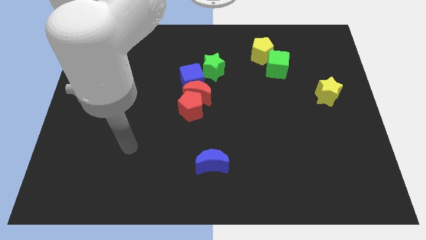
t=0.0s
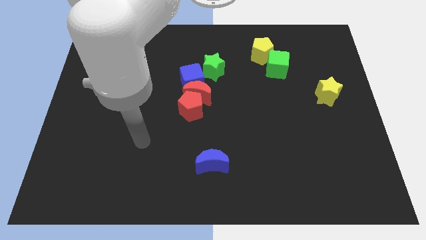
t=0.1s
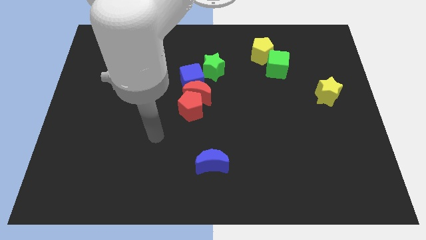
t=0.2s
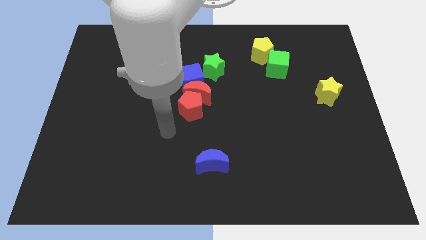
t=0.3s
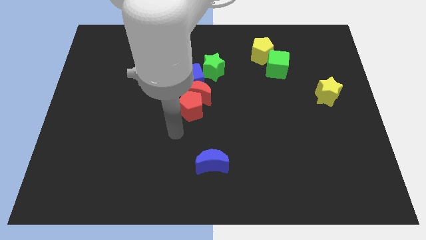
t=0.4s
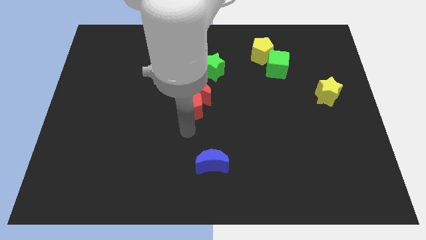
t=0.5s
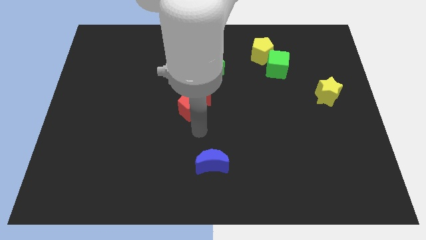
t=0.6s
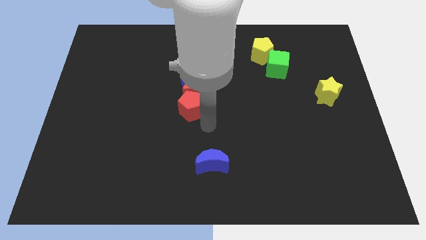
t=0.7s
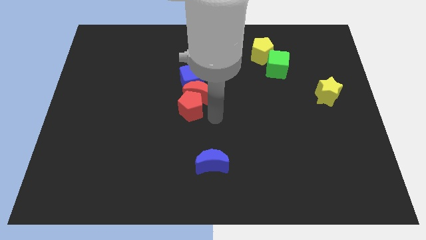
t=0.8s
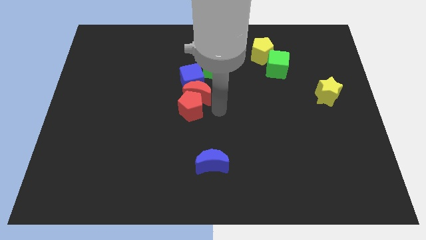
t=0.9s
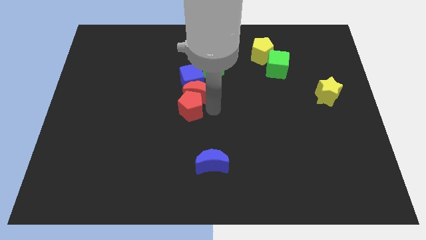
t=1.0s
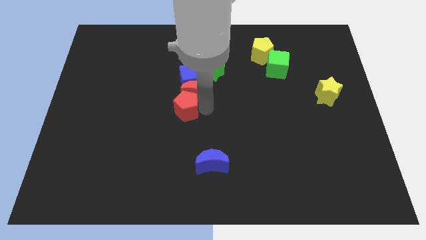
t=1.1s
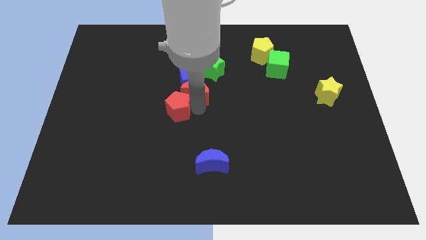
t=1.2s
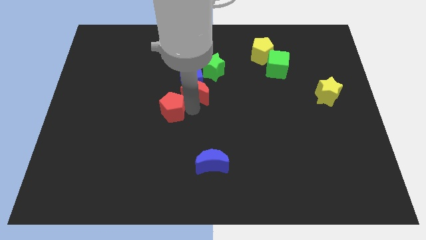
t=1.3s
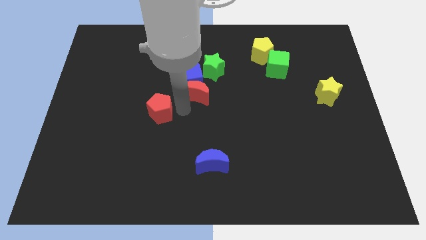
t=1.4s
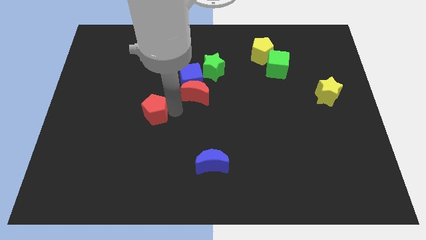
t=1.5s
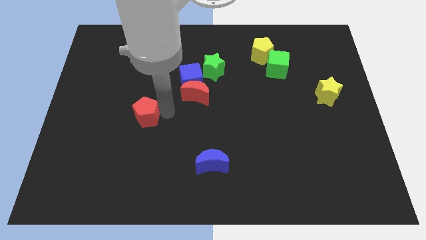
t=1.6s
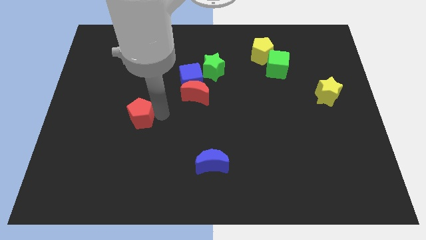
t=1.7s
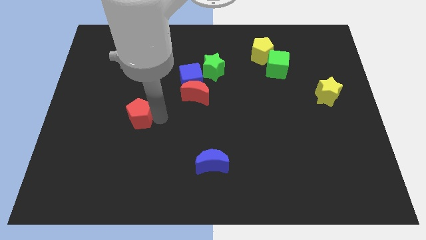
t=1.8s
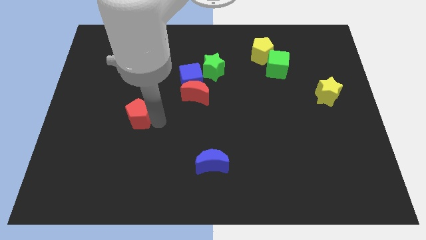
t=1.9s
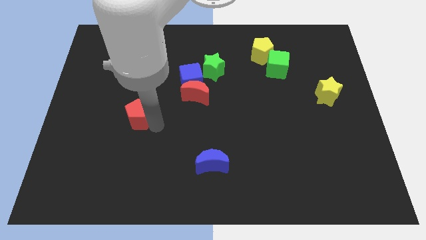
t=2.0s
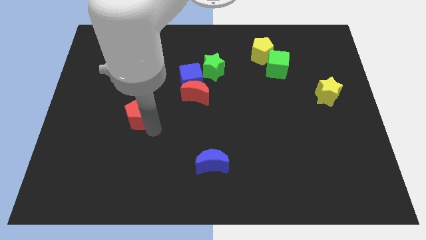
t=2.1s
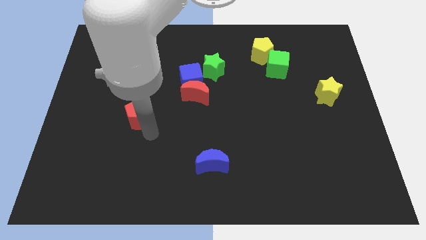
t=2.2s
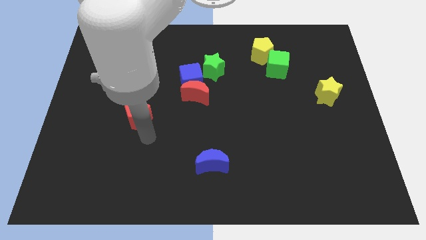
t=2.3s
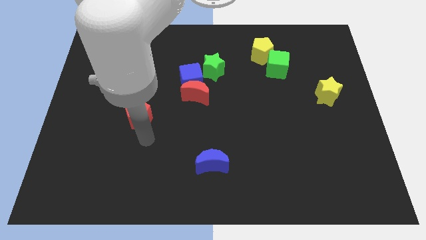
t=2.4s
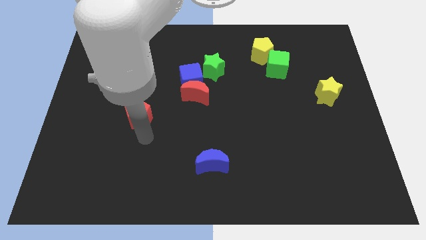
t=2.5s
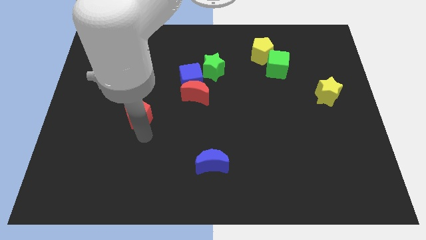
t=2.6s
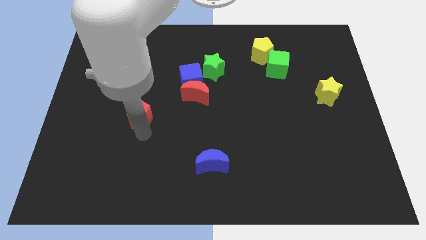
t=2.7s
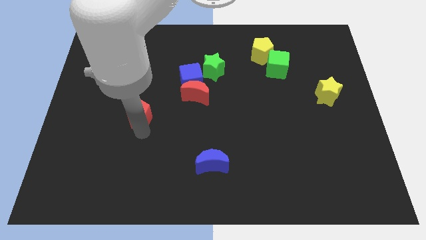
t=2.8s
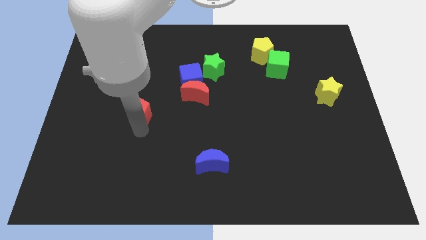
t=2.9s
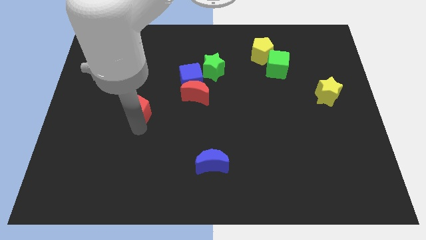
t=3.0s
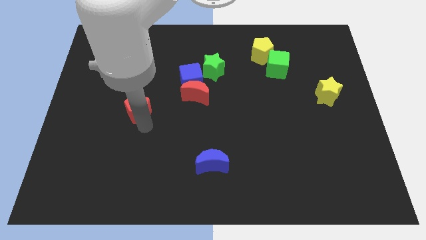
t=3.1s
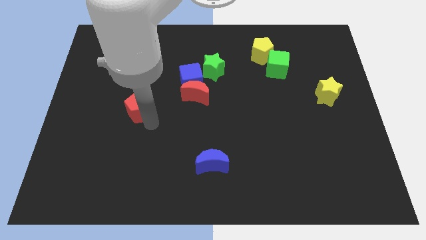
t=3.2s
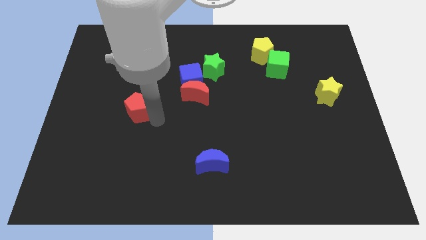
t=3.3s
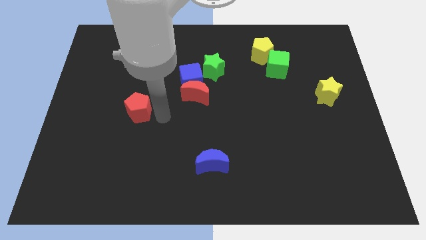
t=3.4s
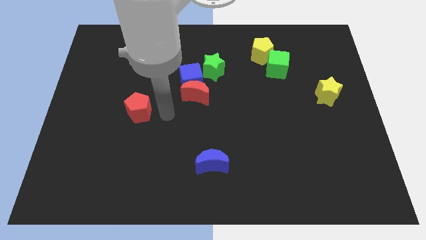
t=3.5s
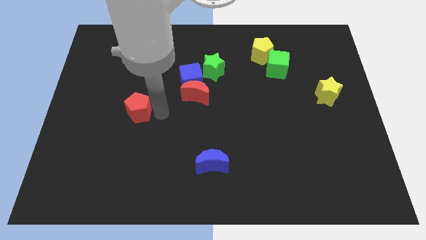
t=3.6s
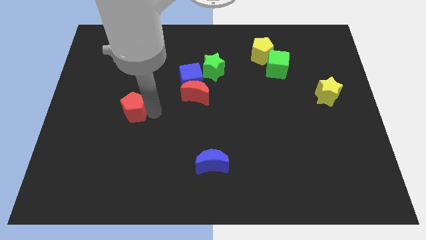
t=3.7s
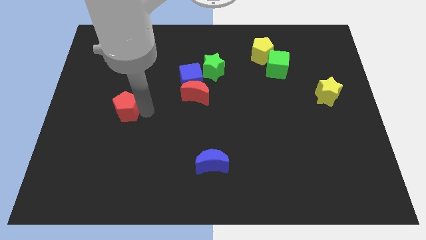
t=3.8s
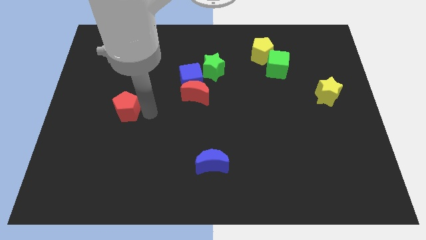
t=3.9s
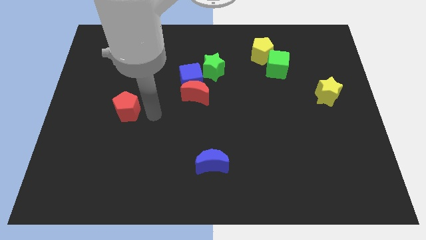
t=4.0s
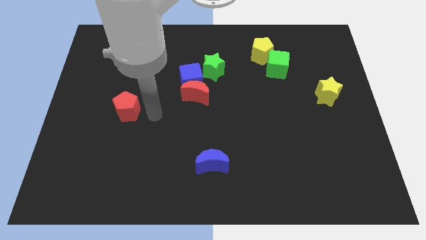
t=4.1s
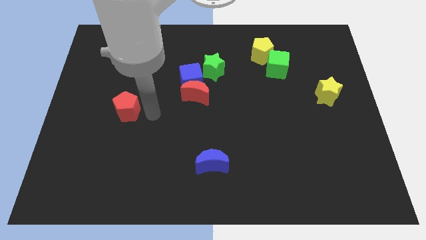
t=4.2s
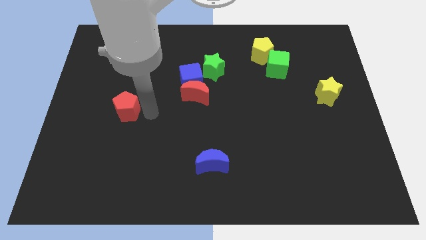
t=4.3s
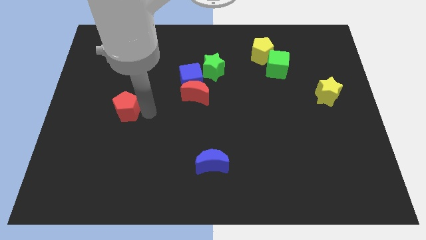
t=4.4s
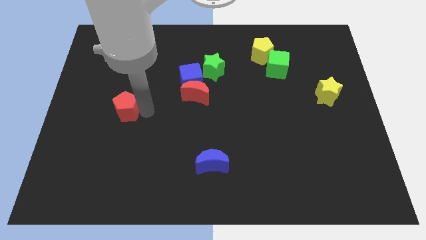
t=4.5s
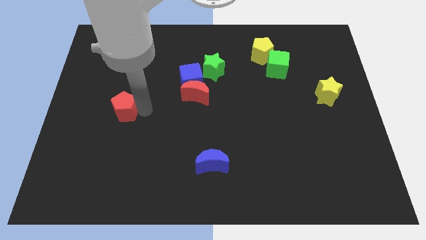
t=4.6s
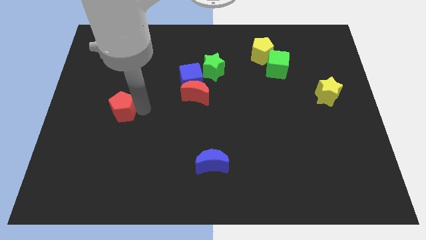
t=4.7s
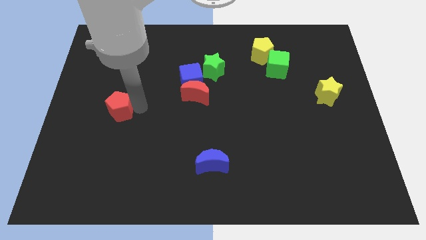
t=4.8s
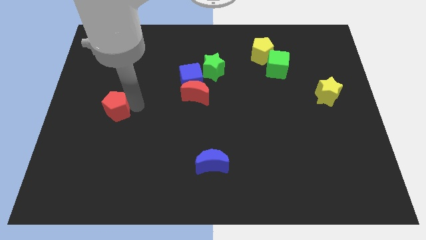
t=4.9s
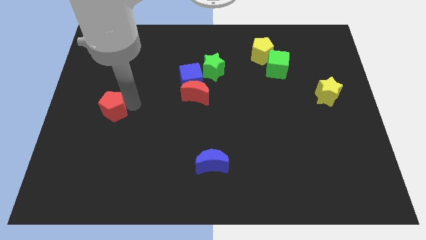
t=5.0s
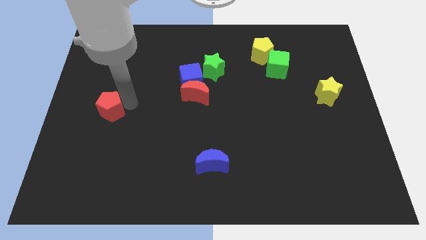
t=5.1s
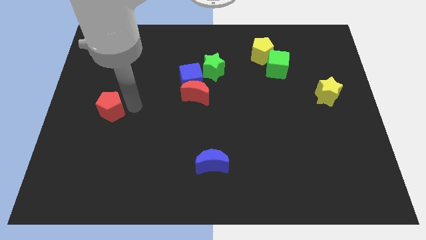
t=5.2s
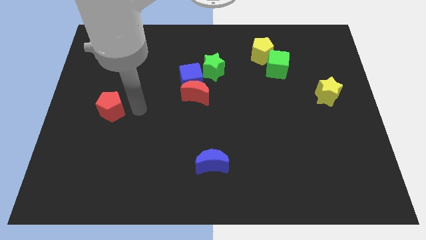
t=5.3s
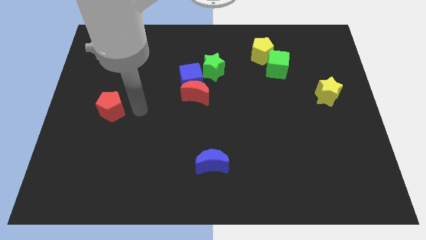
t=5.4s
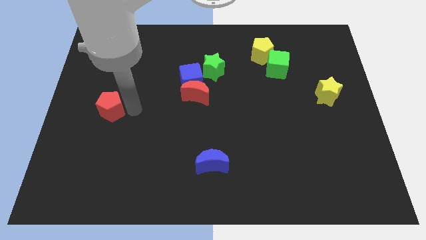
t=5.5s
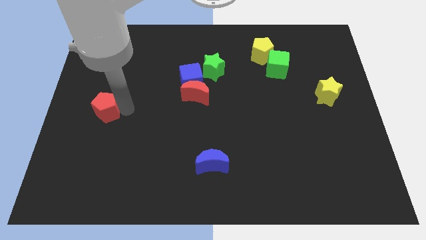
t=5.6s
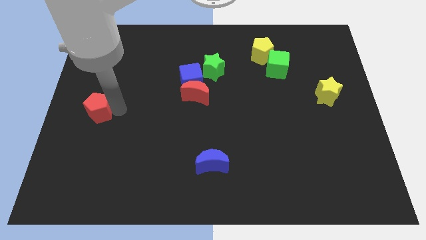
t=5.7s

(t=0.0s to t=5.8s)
put the red pentagon to the left side of the board
